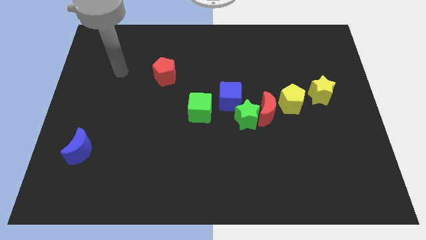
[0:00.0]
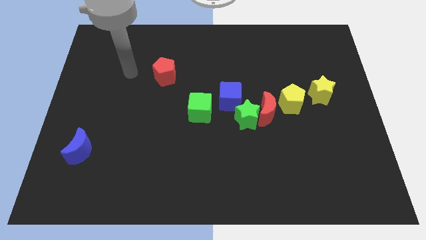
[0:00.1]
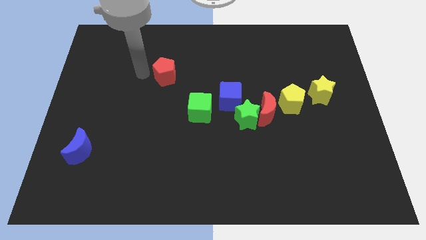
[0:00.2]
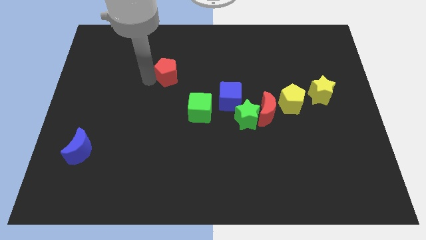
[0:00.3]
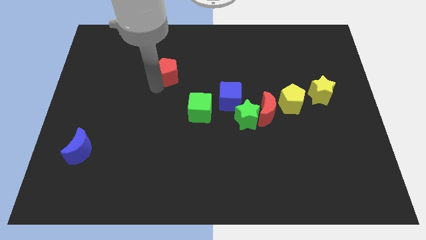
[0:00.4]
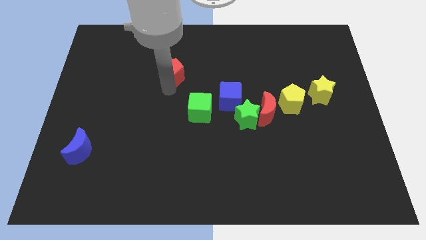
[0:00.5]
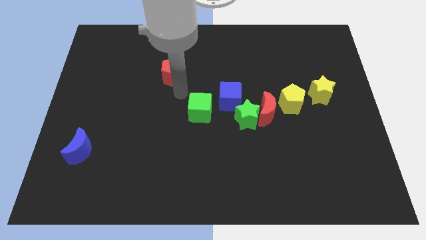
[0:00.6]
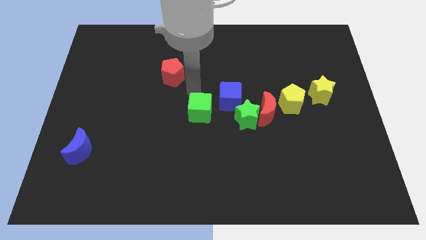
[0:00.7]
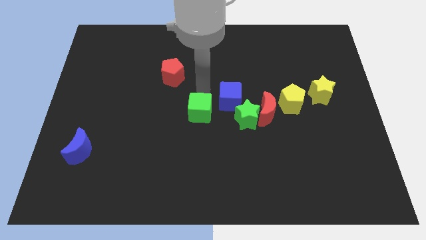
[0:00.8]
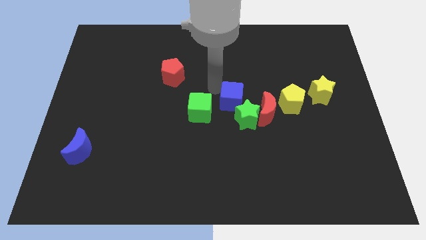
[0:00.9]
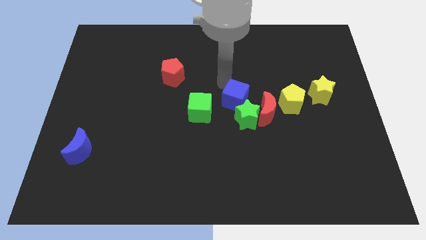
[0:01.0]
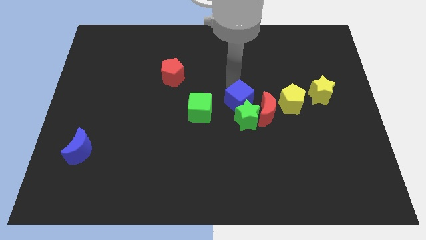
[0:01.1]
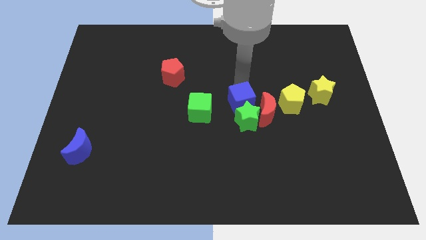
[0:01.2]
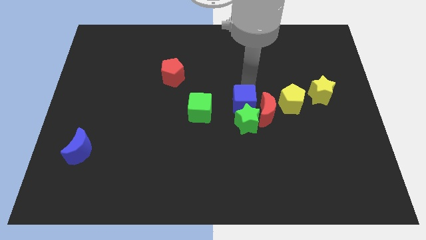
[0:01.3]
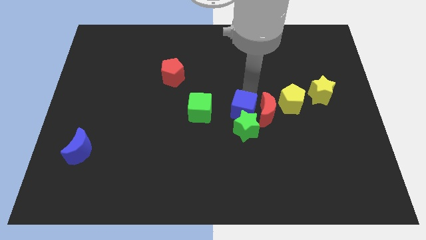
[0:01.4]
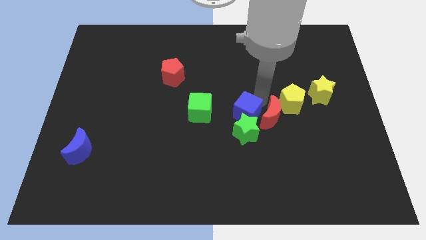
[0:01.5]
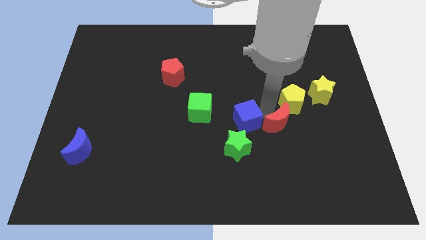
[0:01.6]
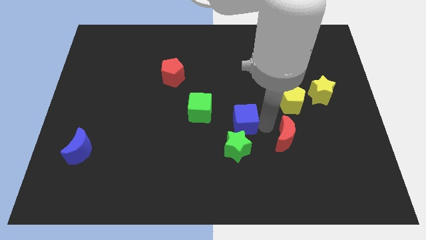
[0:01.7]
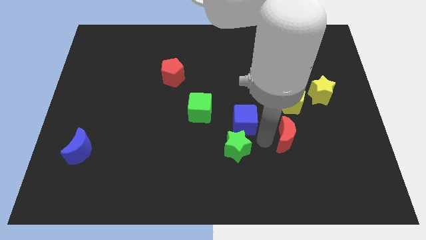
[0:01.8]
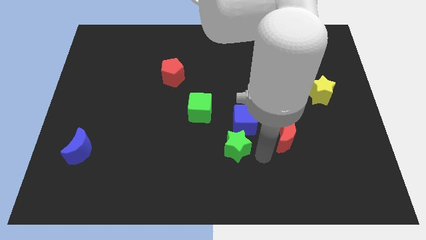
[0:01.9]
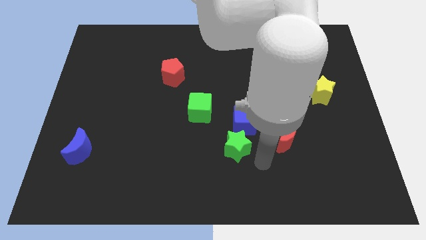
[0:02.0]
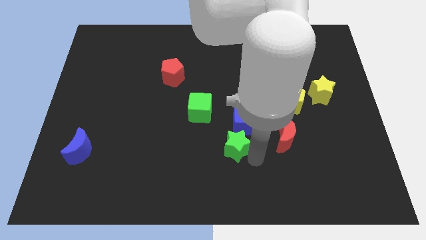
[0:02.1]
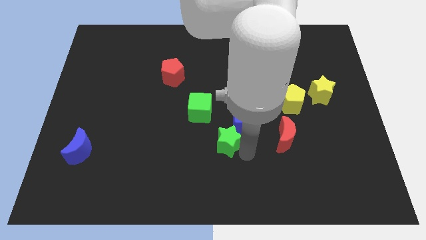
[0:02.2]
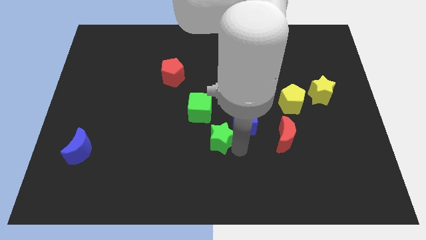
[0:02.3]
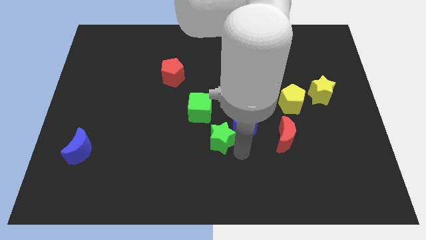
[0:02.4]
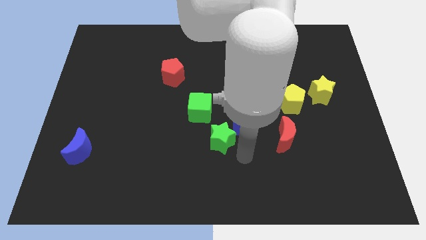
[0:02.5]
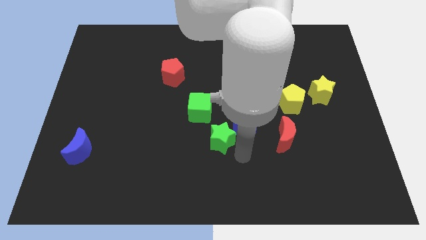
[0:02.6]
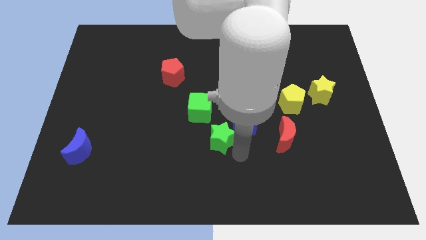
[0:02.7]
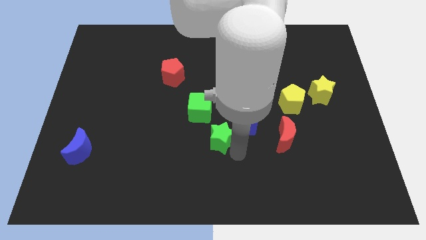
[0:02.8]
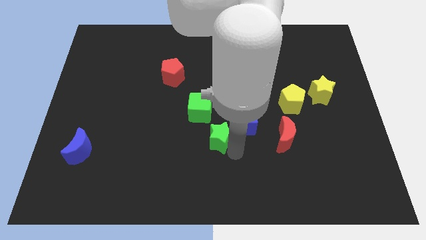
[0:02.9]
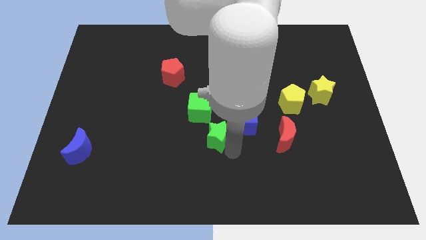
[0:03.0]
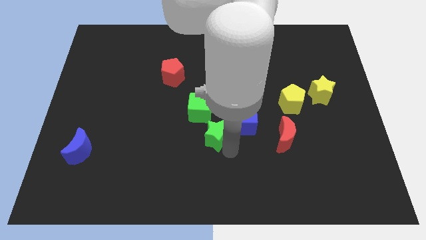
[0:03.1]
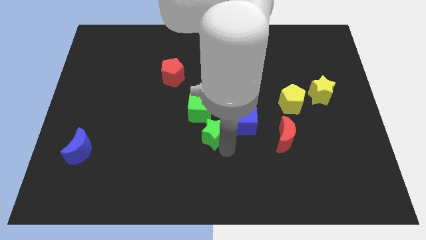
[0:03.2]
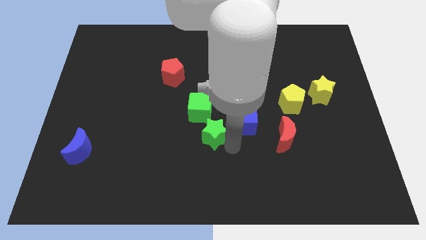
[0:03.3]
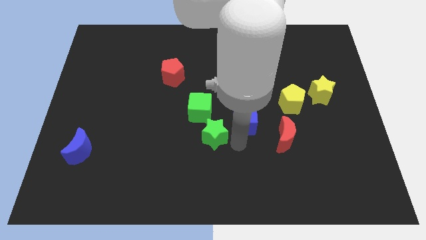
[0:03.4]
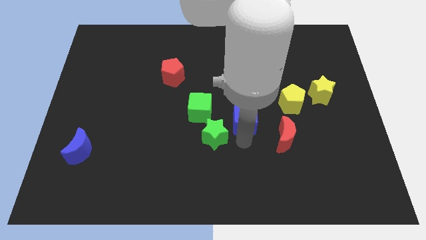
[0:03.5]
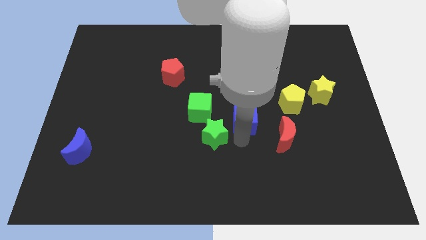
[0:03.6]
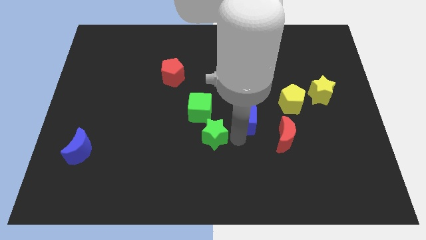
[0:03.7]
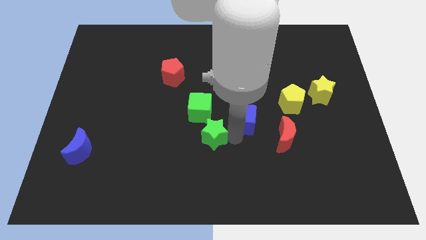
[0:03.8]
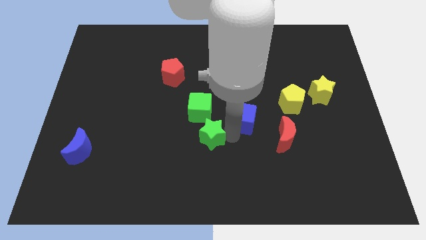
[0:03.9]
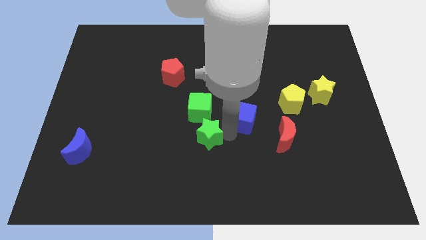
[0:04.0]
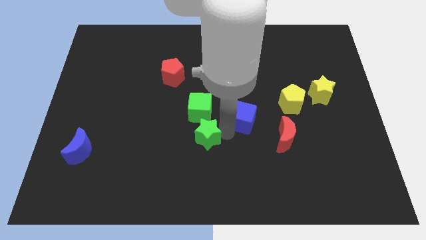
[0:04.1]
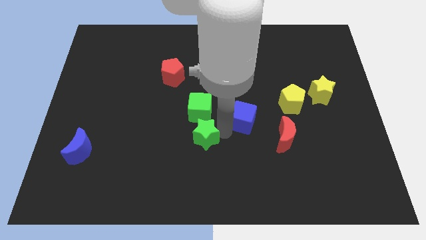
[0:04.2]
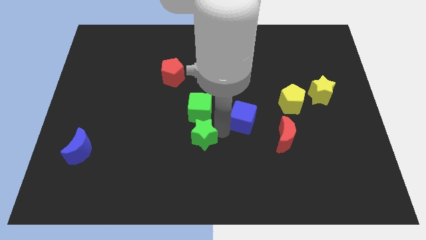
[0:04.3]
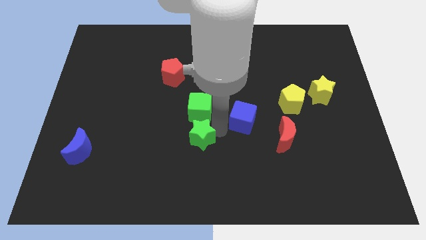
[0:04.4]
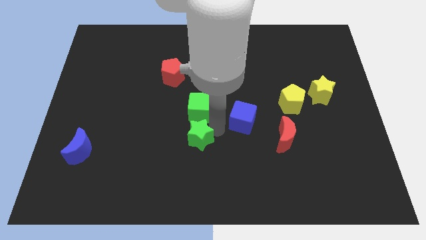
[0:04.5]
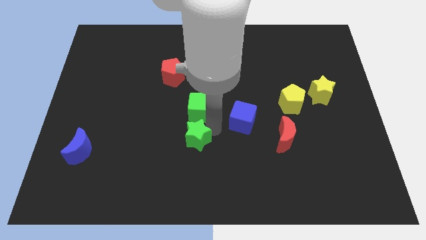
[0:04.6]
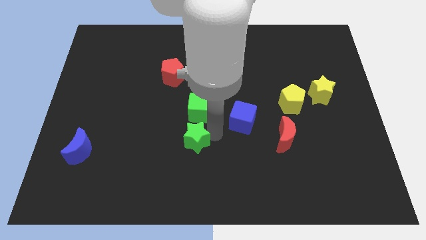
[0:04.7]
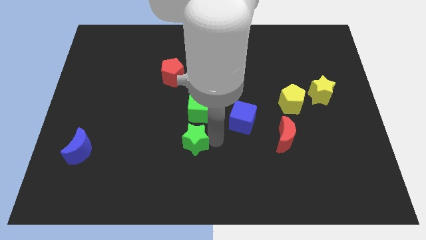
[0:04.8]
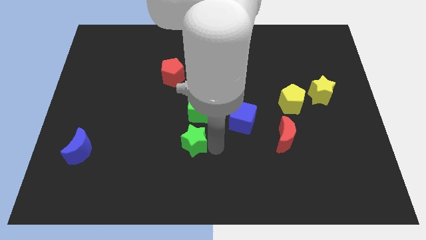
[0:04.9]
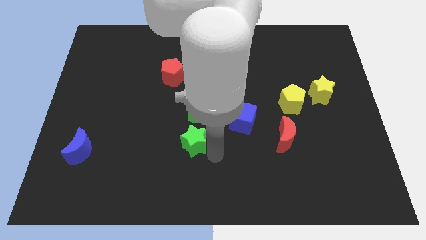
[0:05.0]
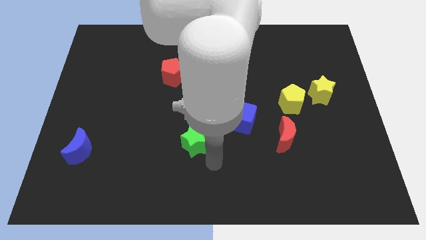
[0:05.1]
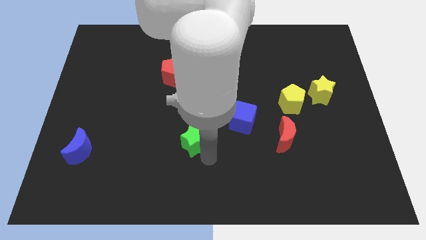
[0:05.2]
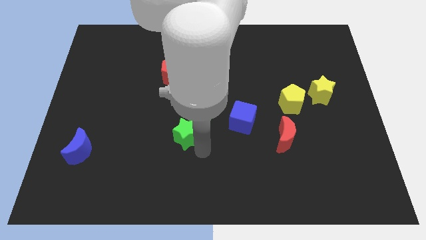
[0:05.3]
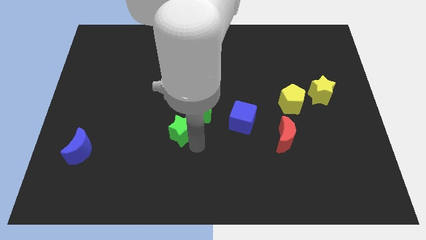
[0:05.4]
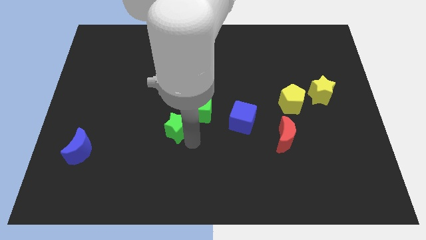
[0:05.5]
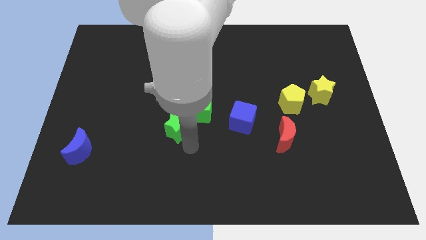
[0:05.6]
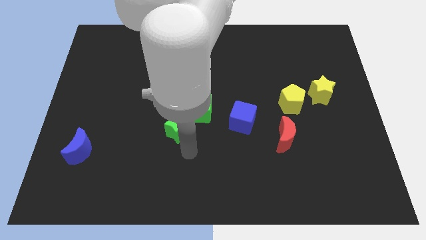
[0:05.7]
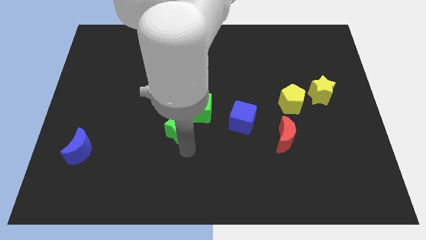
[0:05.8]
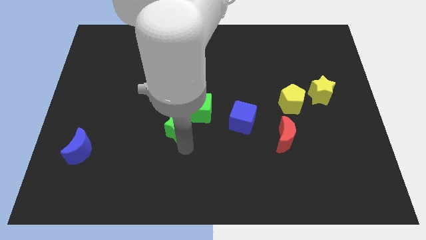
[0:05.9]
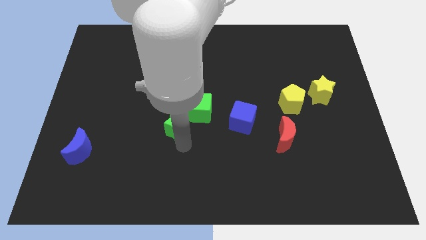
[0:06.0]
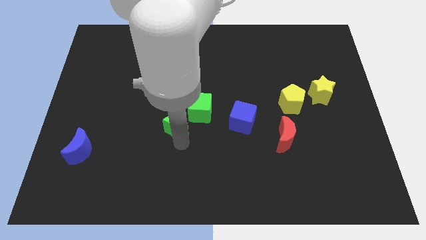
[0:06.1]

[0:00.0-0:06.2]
move the green star below the red pentagon

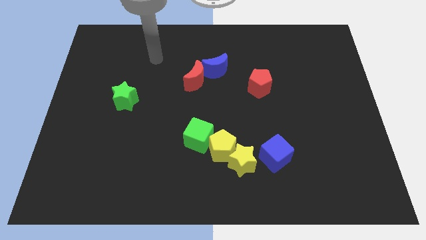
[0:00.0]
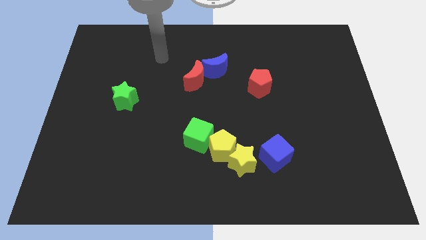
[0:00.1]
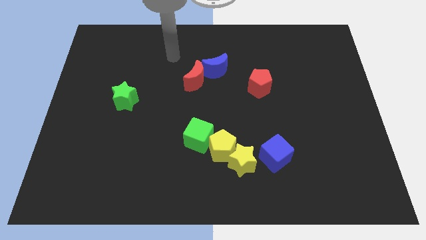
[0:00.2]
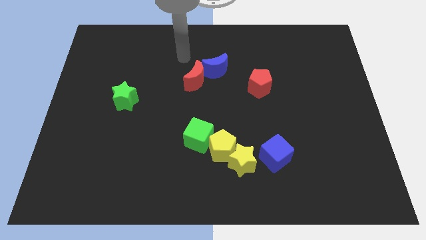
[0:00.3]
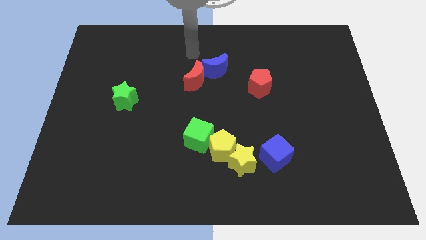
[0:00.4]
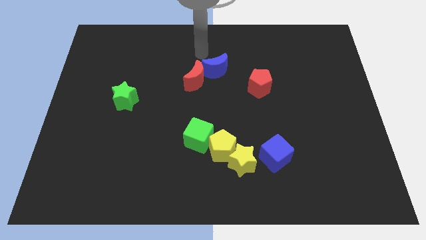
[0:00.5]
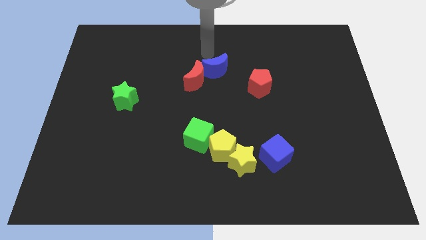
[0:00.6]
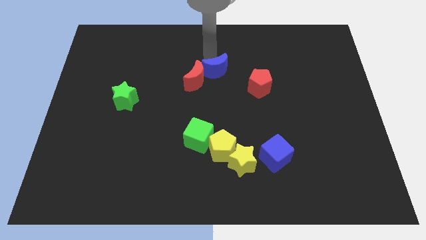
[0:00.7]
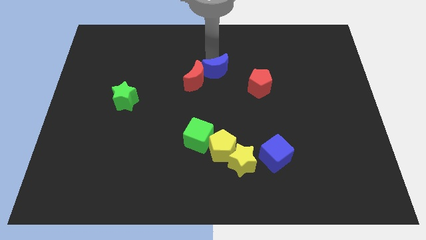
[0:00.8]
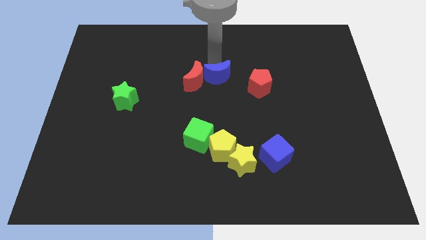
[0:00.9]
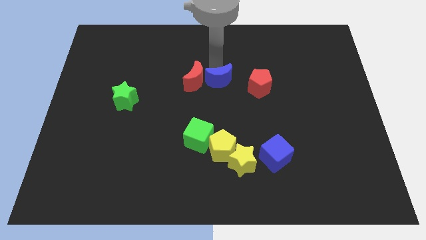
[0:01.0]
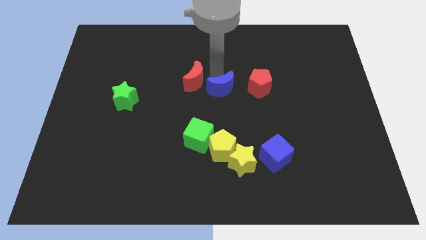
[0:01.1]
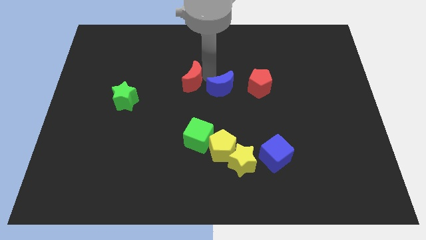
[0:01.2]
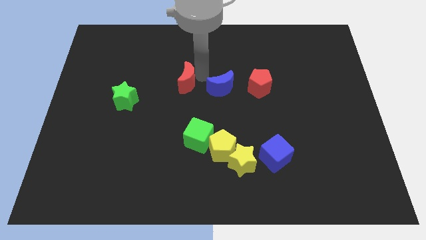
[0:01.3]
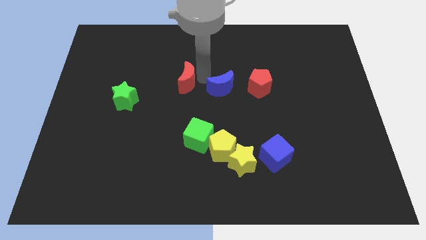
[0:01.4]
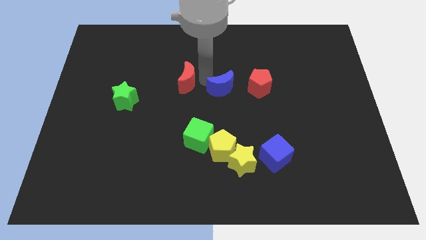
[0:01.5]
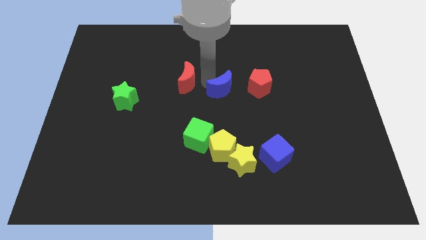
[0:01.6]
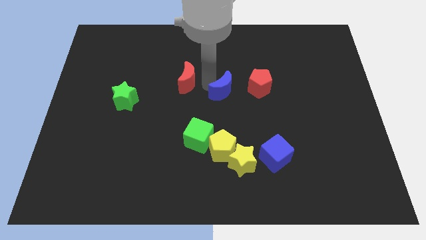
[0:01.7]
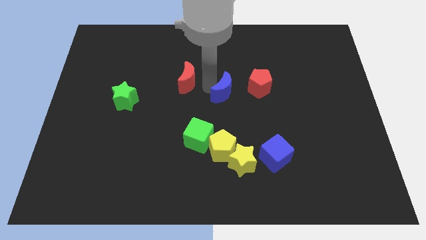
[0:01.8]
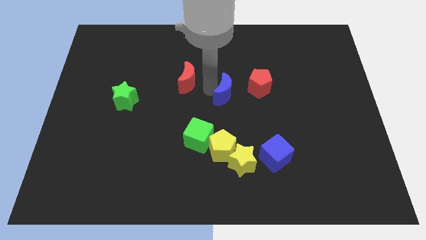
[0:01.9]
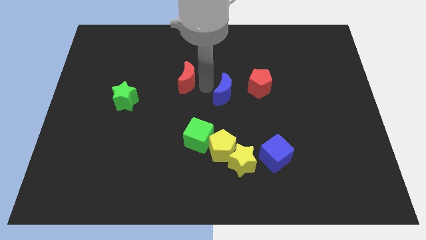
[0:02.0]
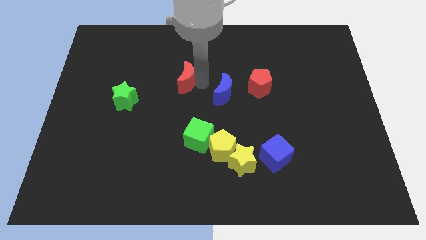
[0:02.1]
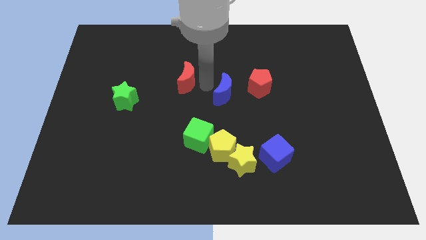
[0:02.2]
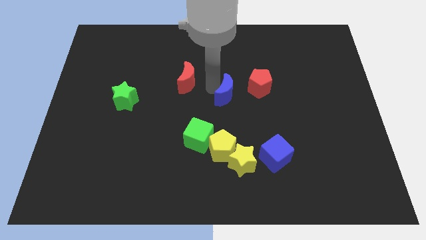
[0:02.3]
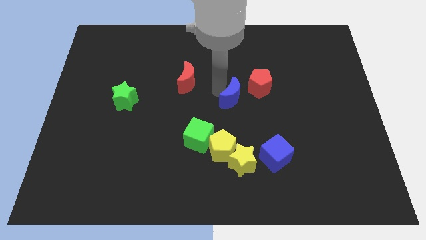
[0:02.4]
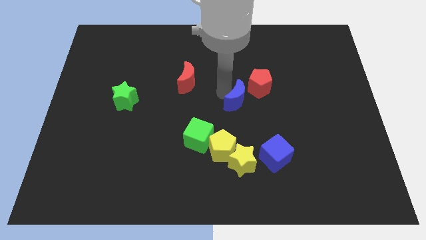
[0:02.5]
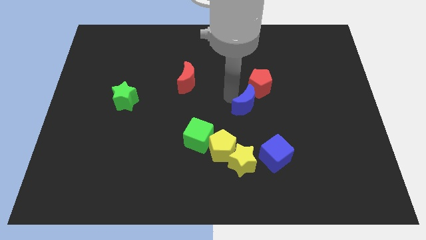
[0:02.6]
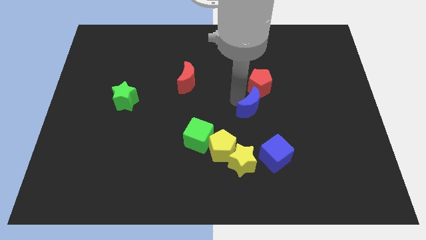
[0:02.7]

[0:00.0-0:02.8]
move the blue moon to the top of the blue cube
